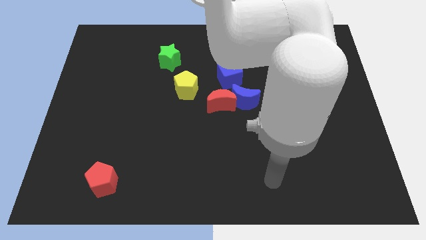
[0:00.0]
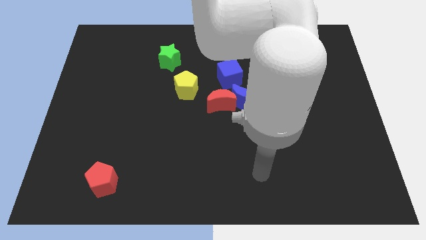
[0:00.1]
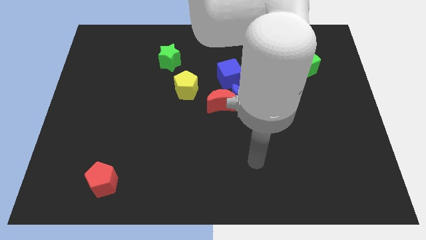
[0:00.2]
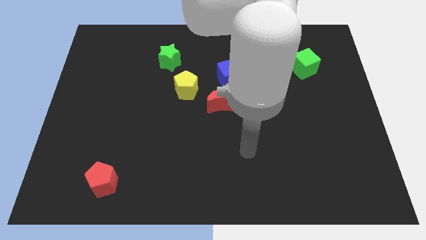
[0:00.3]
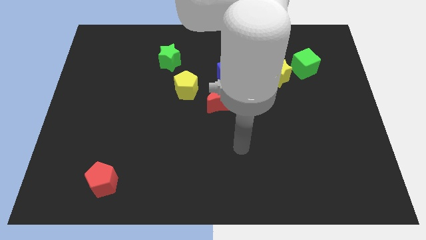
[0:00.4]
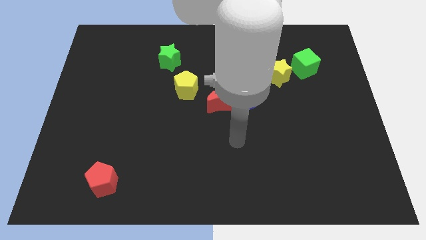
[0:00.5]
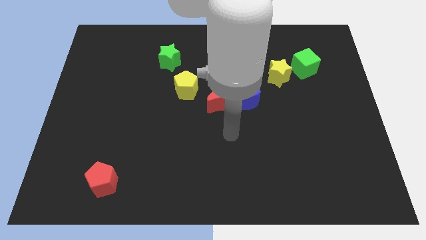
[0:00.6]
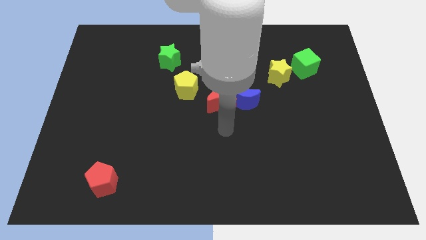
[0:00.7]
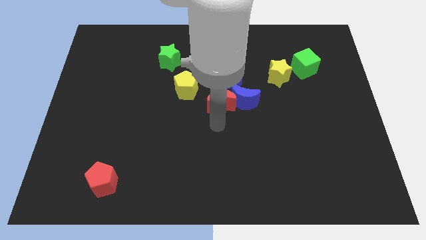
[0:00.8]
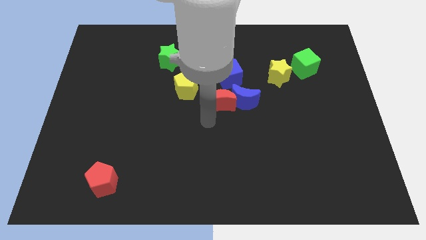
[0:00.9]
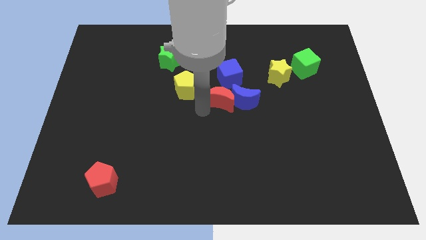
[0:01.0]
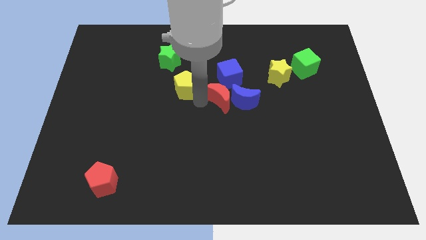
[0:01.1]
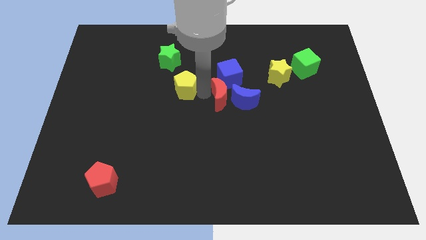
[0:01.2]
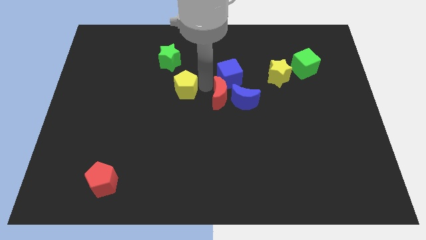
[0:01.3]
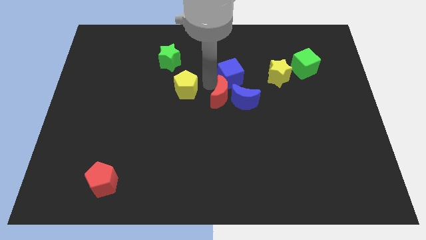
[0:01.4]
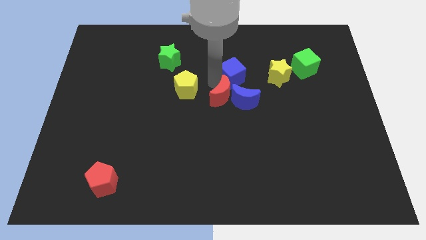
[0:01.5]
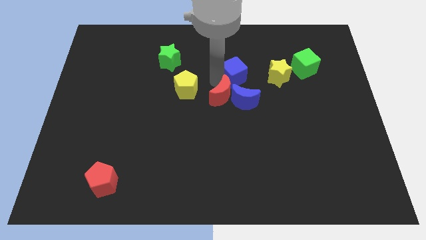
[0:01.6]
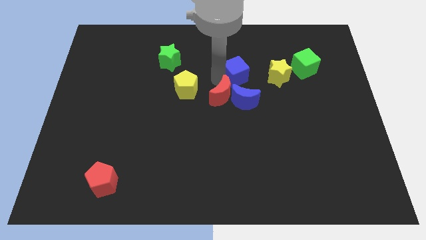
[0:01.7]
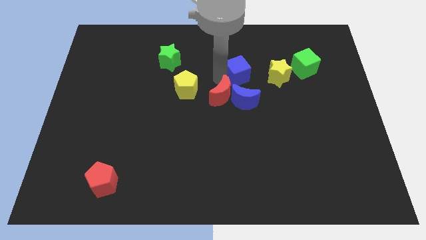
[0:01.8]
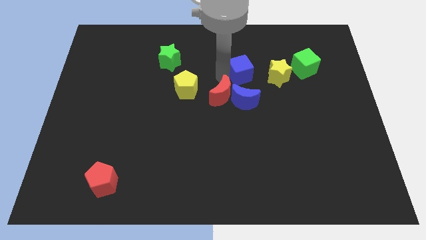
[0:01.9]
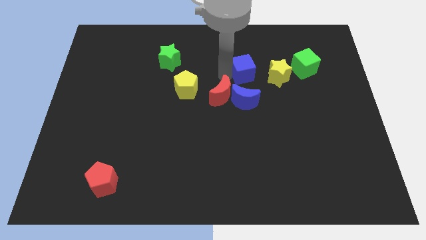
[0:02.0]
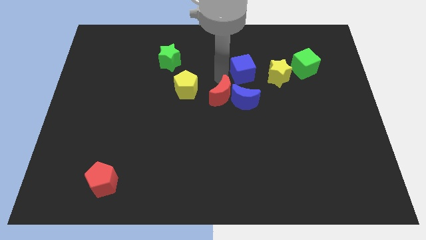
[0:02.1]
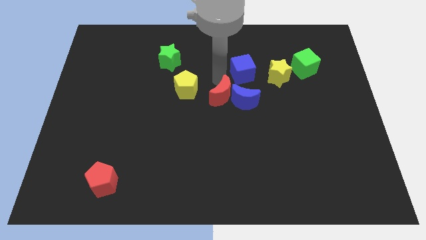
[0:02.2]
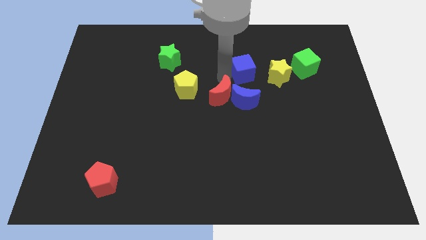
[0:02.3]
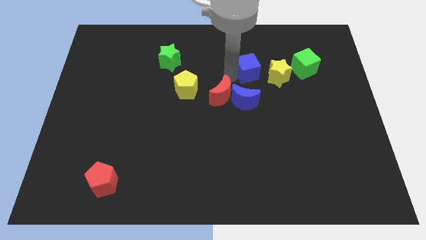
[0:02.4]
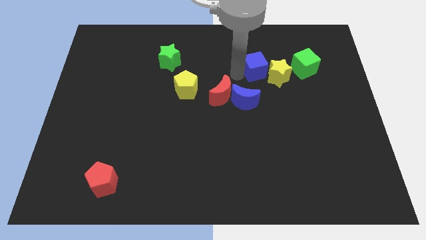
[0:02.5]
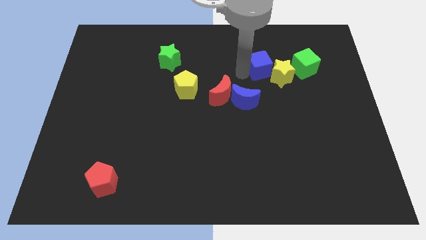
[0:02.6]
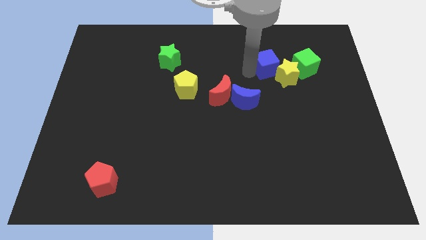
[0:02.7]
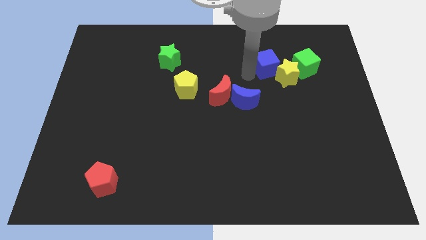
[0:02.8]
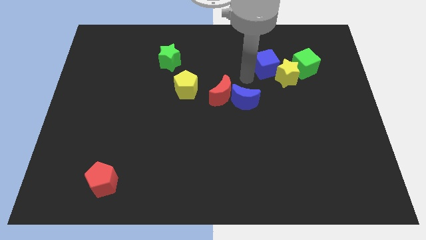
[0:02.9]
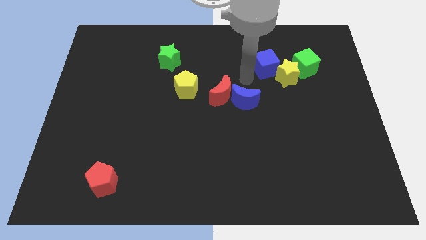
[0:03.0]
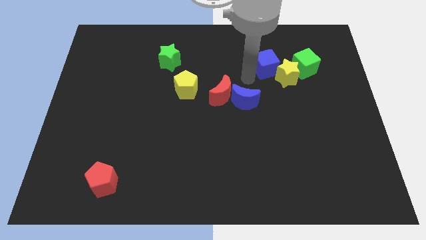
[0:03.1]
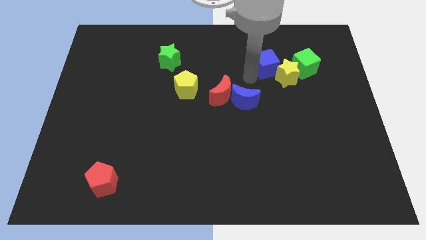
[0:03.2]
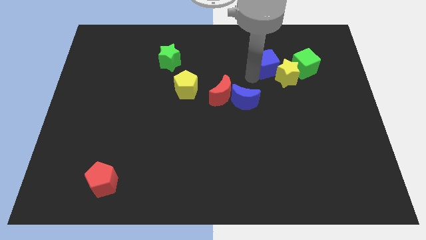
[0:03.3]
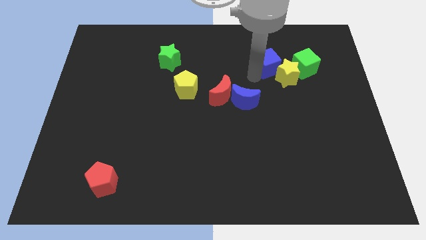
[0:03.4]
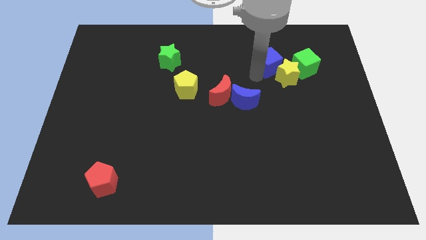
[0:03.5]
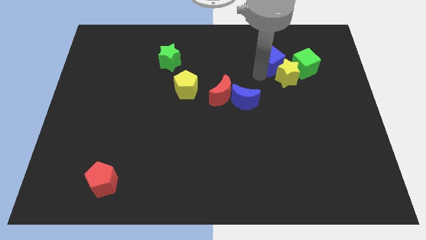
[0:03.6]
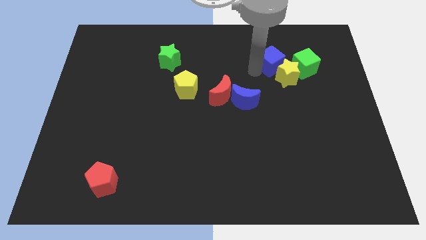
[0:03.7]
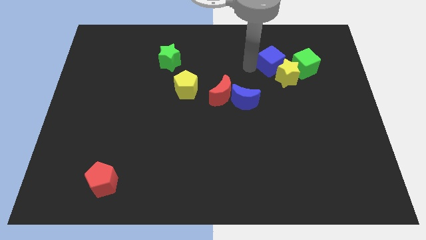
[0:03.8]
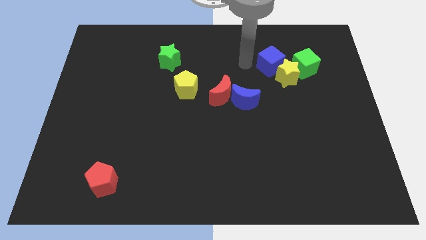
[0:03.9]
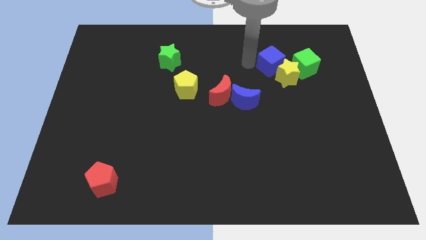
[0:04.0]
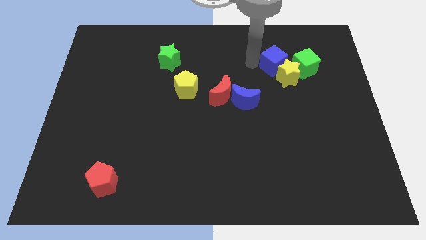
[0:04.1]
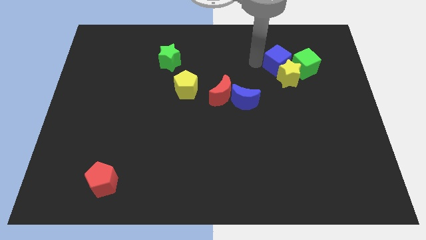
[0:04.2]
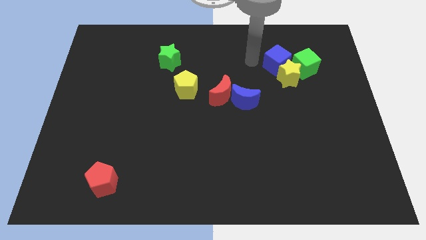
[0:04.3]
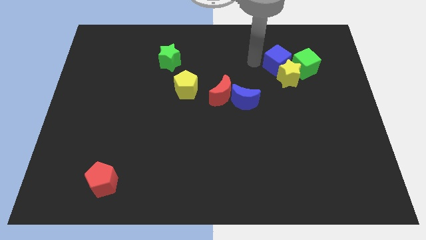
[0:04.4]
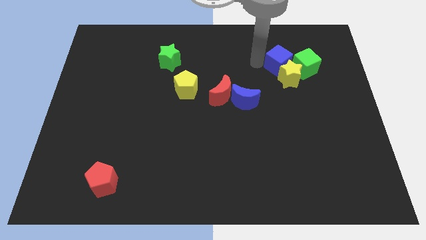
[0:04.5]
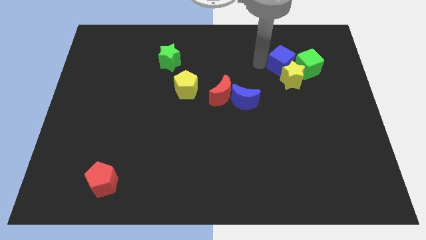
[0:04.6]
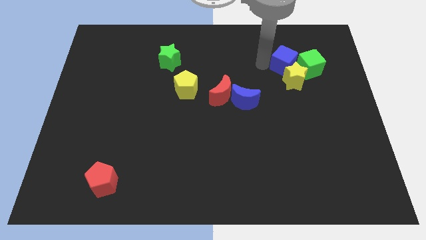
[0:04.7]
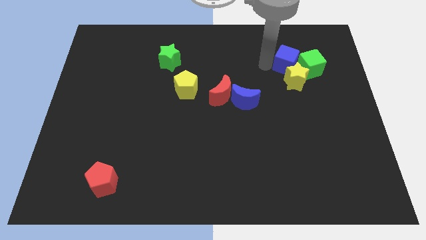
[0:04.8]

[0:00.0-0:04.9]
push the blue cube close to the green cube

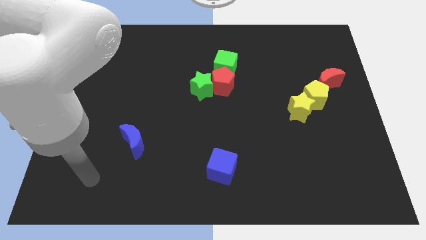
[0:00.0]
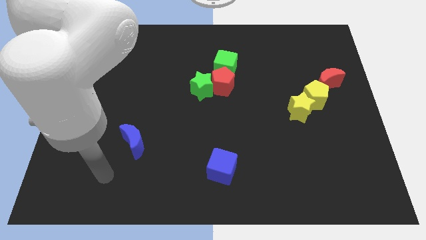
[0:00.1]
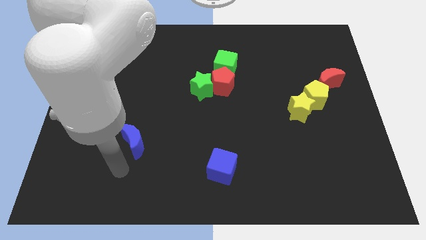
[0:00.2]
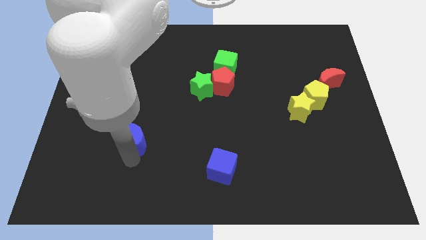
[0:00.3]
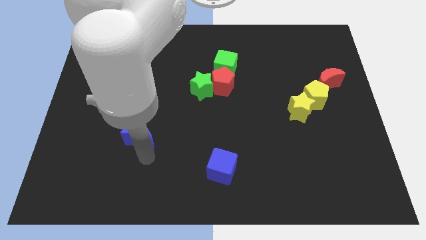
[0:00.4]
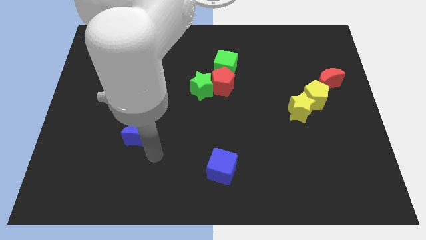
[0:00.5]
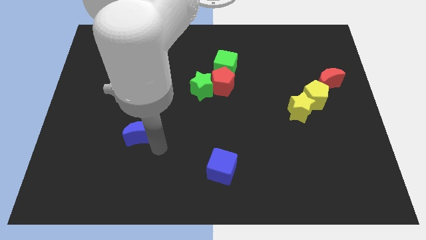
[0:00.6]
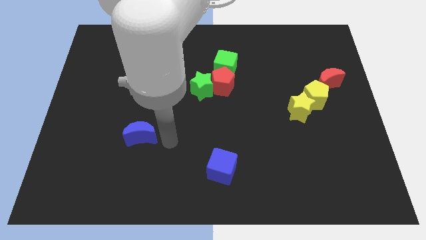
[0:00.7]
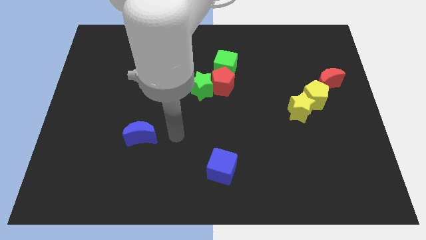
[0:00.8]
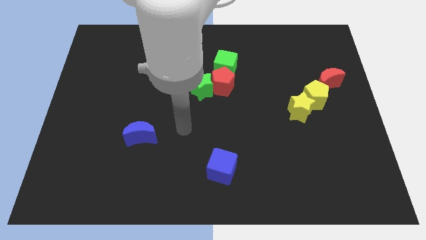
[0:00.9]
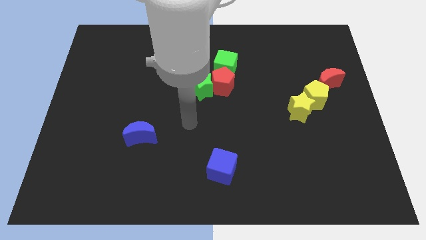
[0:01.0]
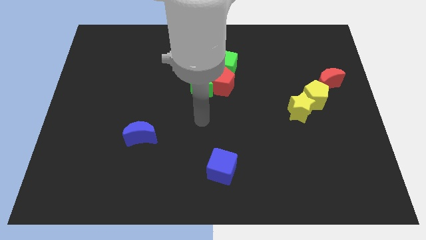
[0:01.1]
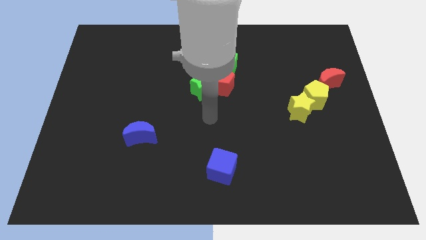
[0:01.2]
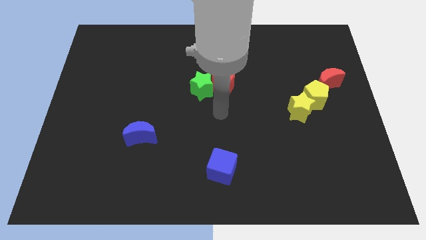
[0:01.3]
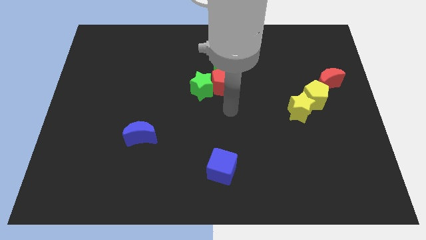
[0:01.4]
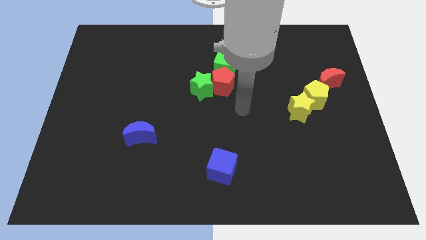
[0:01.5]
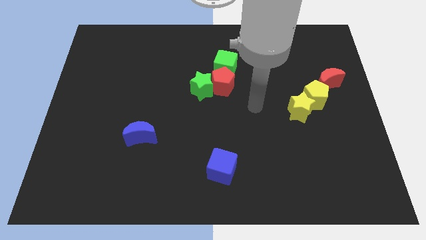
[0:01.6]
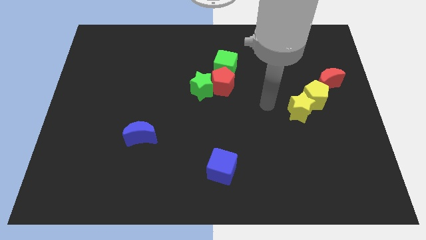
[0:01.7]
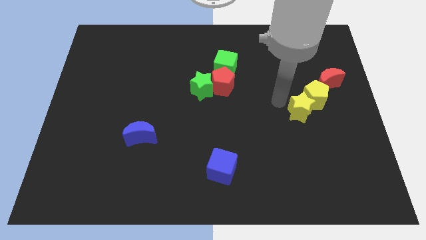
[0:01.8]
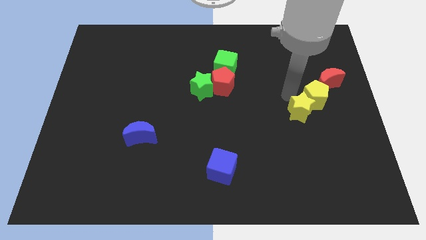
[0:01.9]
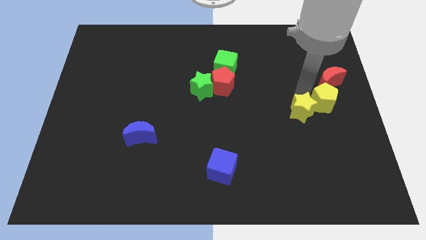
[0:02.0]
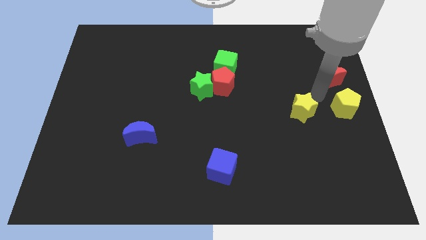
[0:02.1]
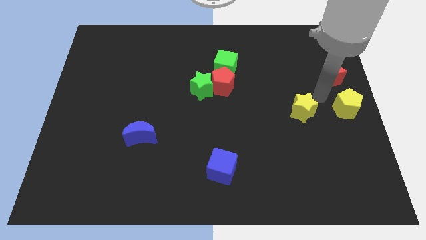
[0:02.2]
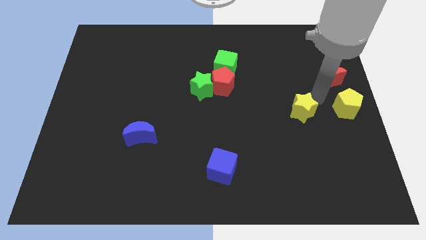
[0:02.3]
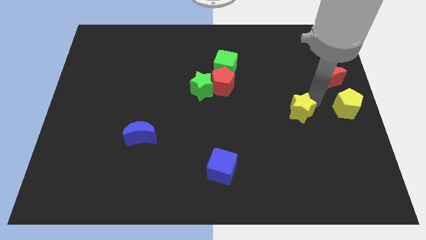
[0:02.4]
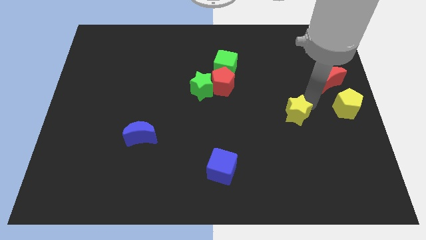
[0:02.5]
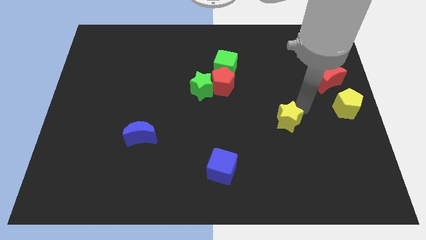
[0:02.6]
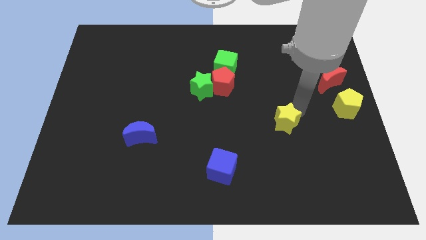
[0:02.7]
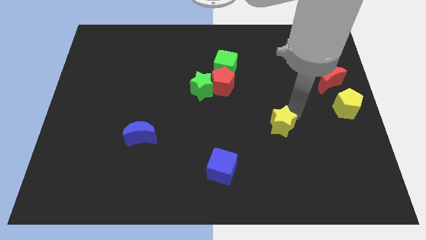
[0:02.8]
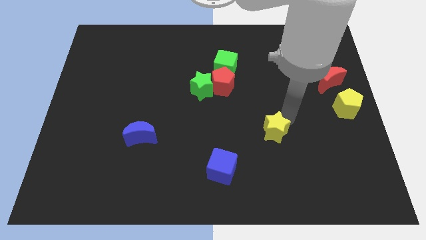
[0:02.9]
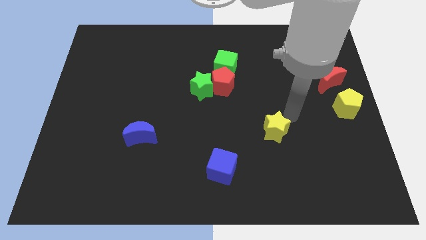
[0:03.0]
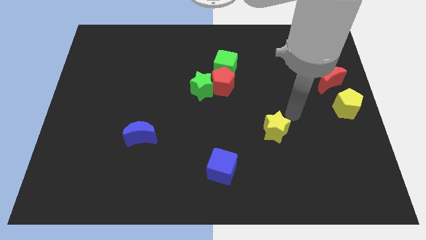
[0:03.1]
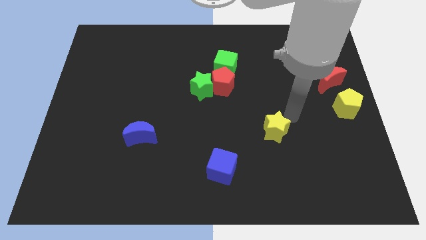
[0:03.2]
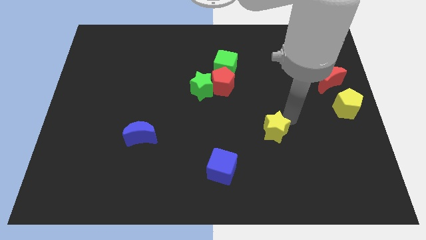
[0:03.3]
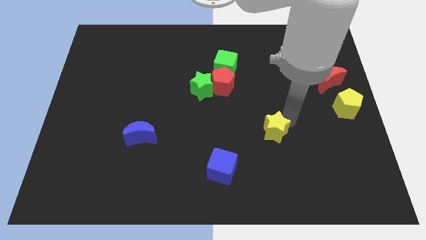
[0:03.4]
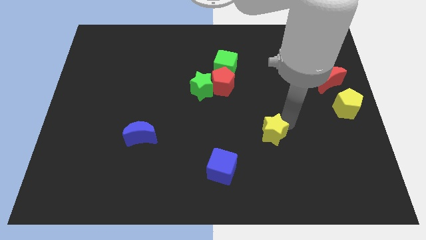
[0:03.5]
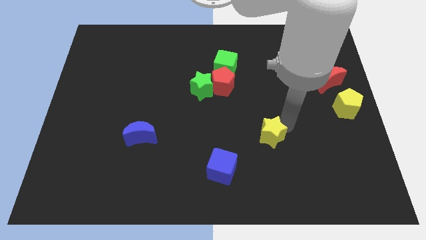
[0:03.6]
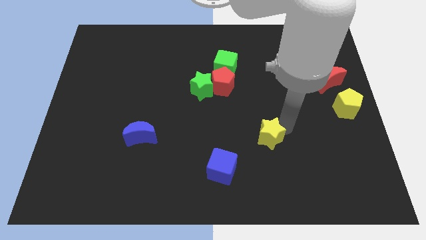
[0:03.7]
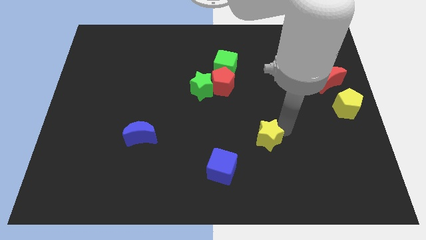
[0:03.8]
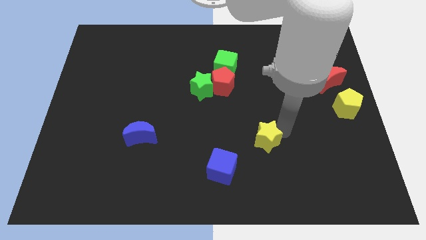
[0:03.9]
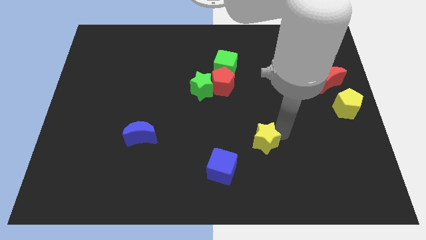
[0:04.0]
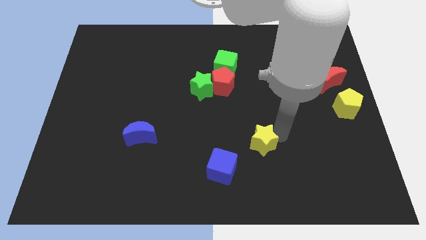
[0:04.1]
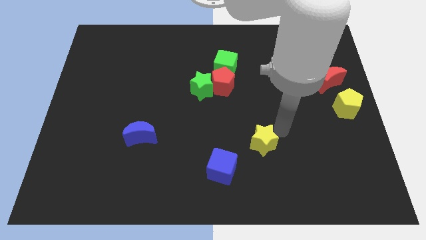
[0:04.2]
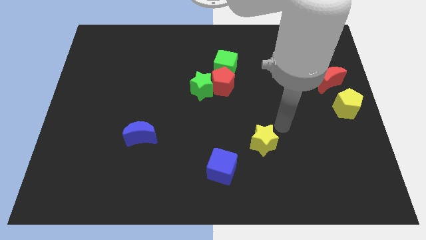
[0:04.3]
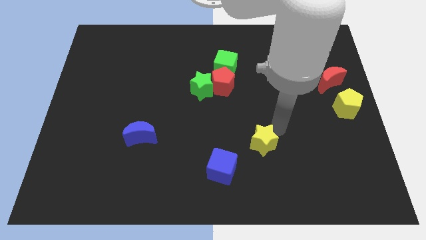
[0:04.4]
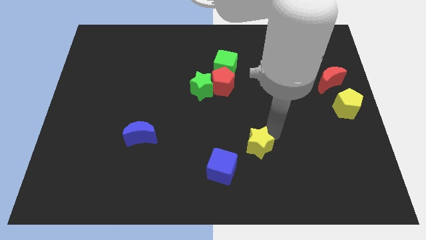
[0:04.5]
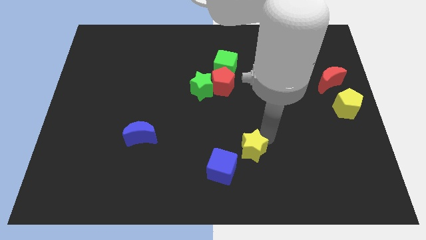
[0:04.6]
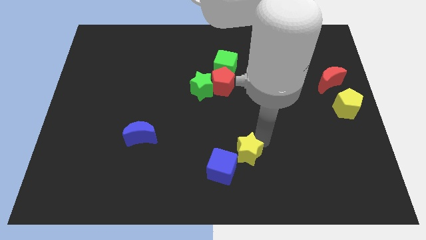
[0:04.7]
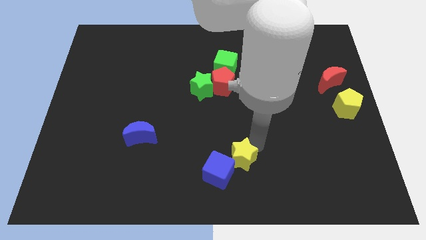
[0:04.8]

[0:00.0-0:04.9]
put the yellow star towards the blue cube
